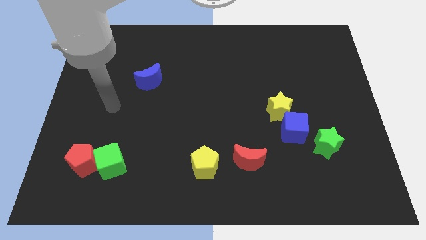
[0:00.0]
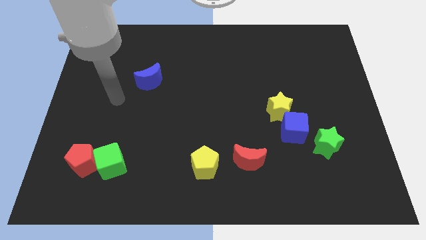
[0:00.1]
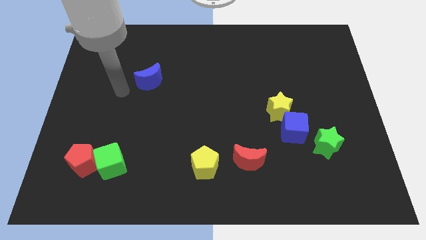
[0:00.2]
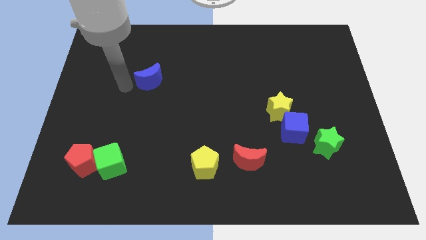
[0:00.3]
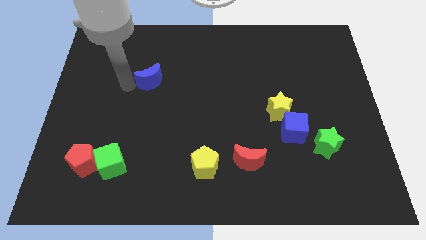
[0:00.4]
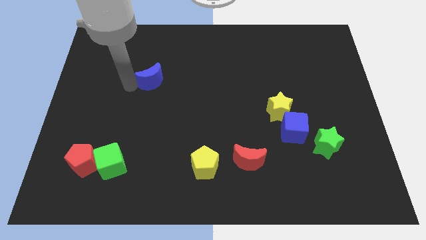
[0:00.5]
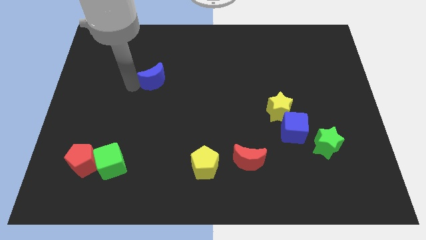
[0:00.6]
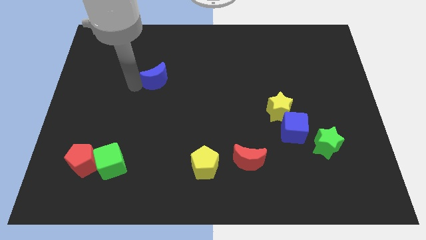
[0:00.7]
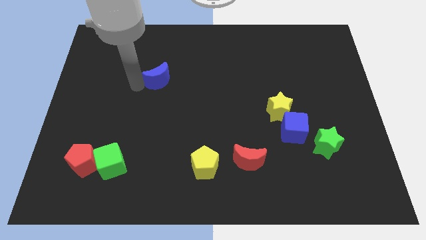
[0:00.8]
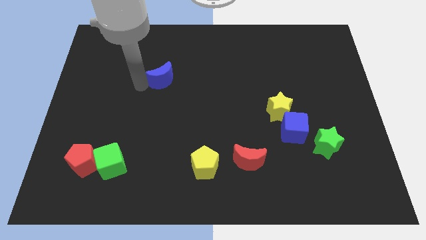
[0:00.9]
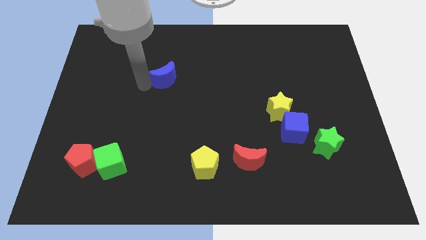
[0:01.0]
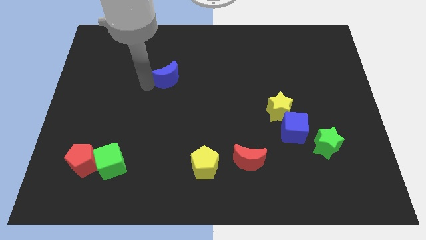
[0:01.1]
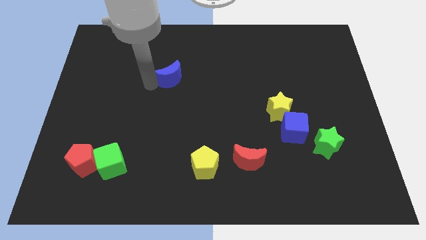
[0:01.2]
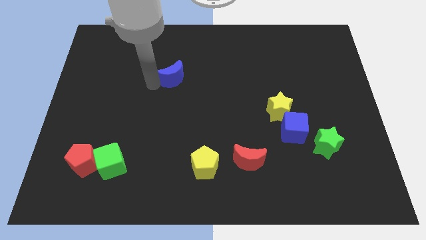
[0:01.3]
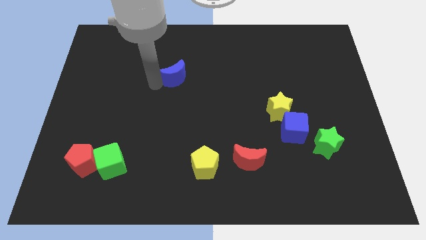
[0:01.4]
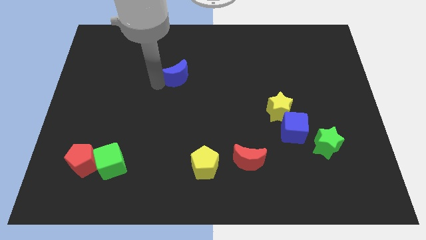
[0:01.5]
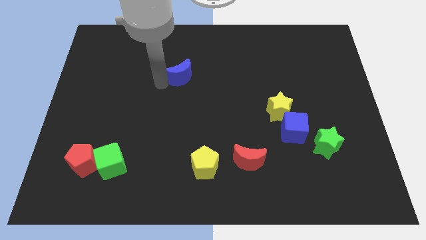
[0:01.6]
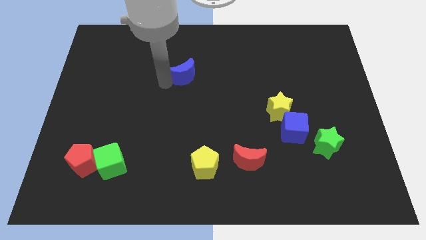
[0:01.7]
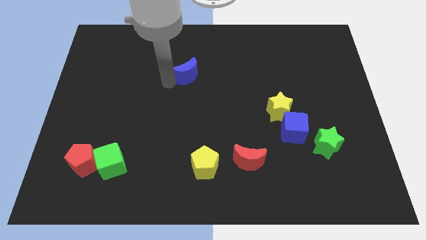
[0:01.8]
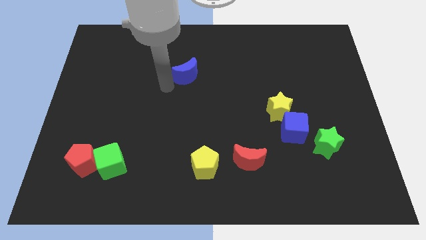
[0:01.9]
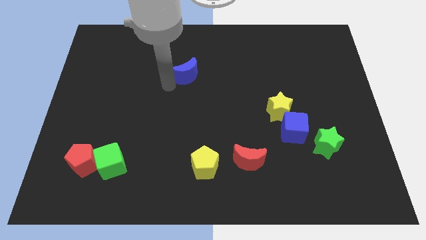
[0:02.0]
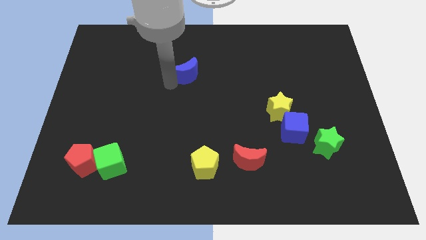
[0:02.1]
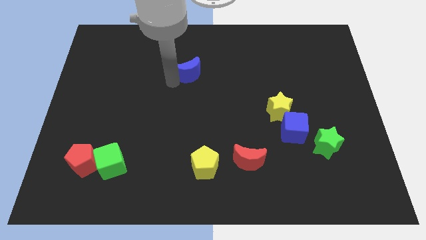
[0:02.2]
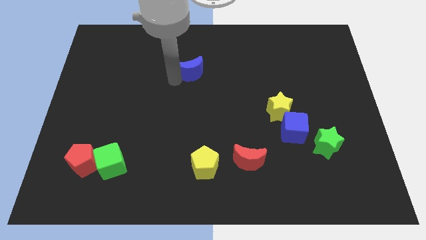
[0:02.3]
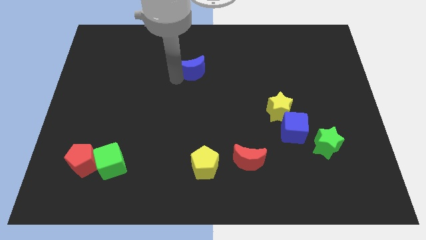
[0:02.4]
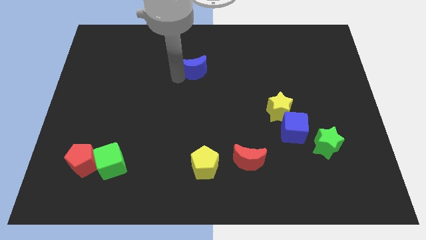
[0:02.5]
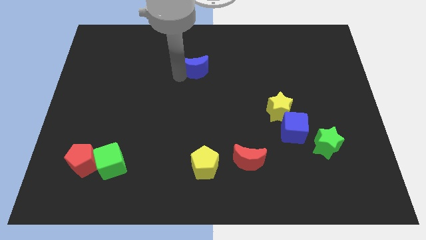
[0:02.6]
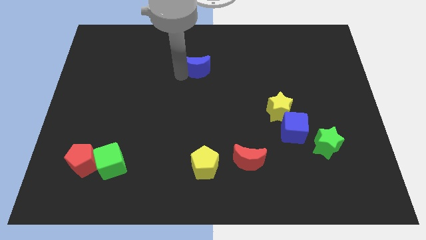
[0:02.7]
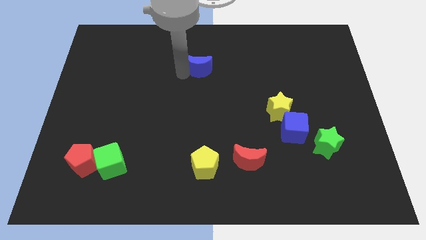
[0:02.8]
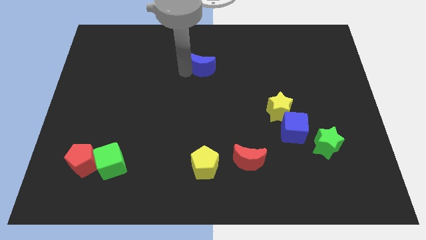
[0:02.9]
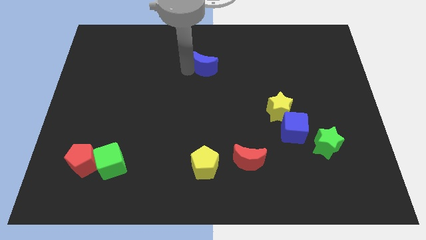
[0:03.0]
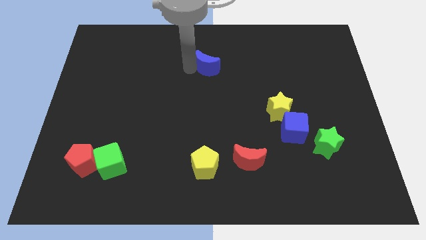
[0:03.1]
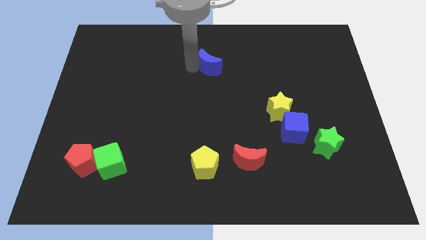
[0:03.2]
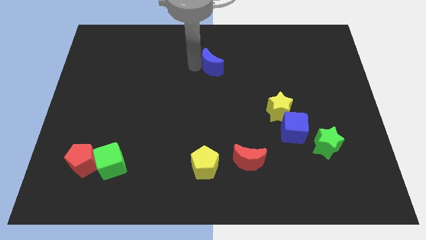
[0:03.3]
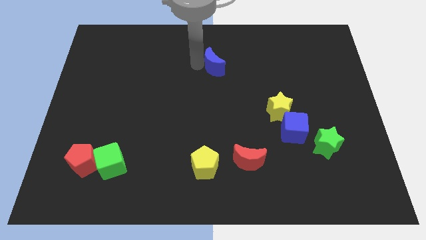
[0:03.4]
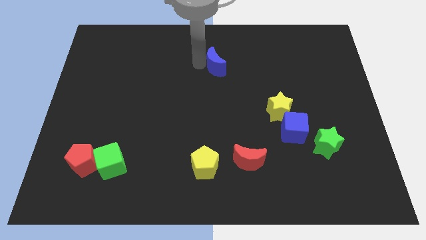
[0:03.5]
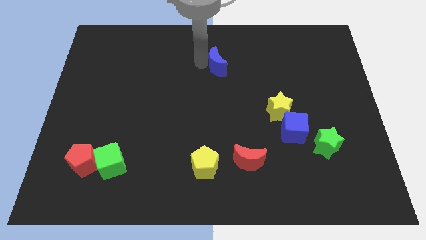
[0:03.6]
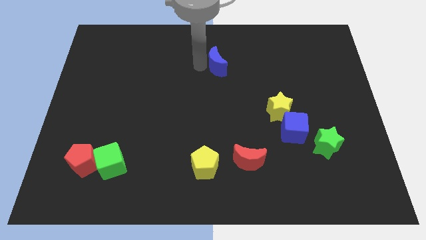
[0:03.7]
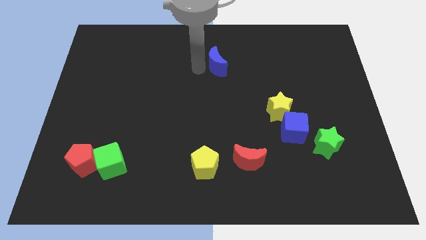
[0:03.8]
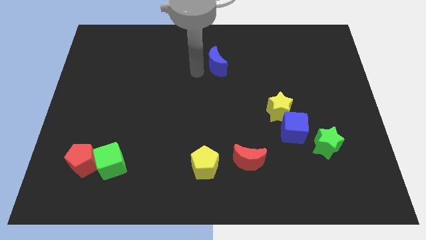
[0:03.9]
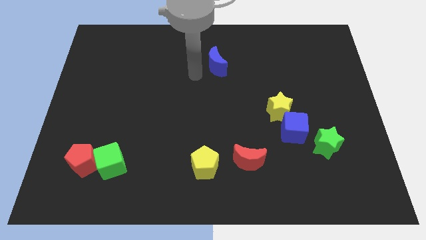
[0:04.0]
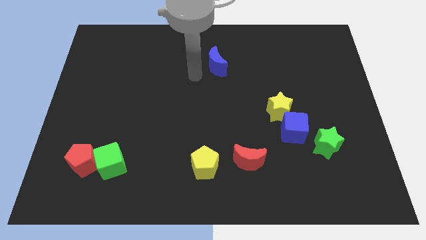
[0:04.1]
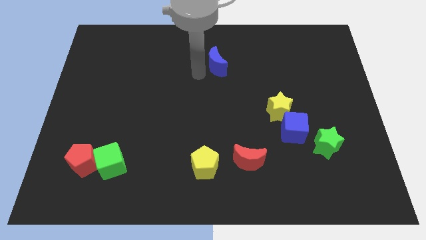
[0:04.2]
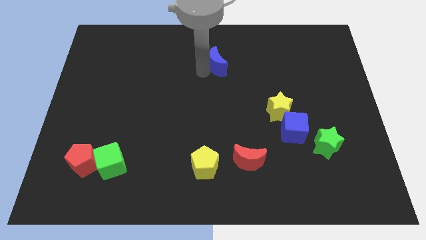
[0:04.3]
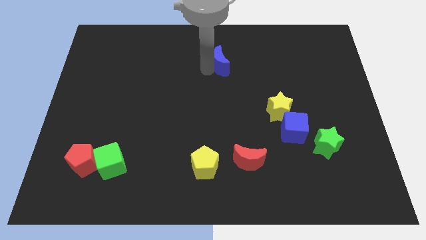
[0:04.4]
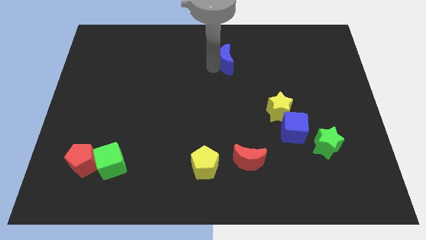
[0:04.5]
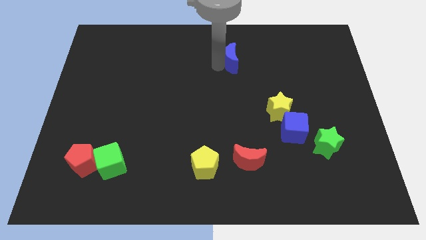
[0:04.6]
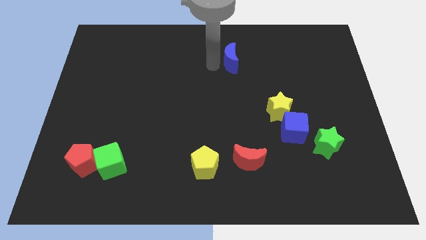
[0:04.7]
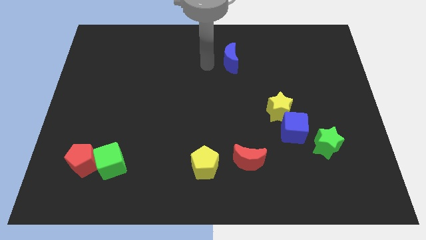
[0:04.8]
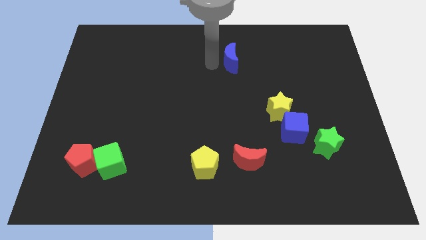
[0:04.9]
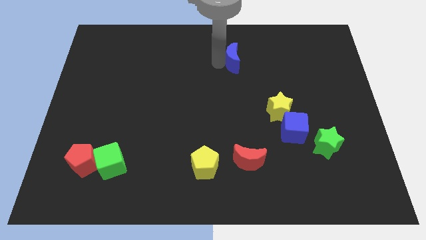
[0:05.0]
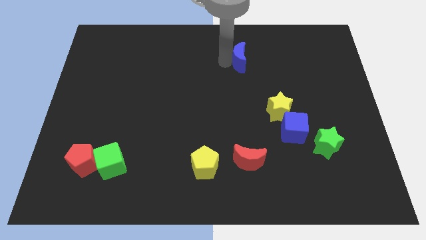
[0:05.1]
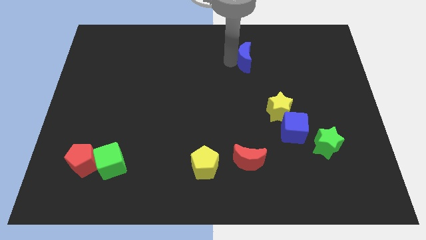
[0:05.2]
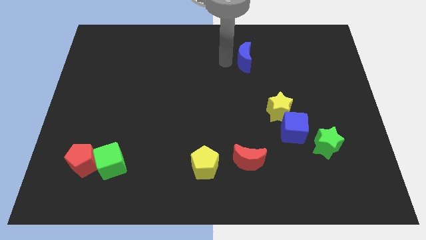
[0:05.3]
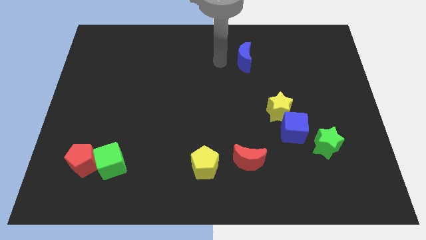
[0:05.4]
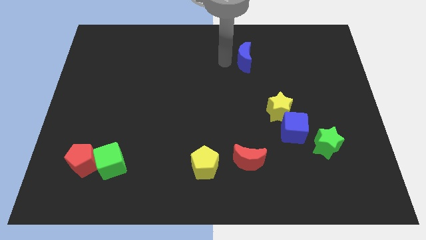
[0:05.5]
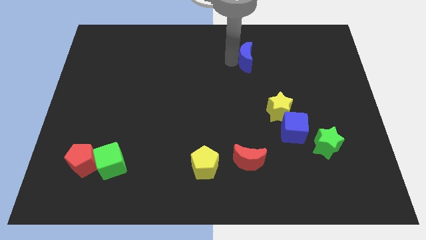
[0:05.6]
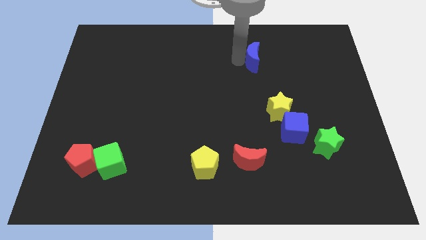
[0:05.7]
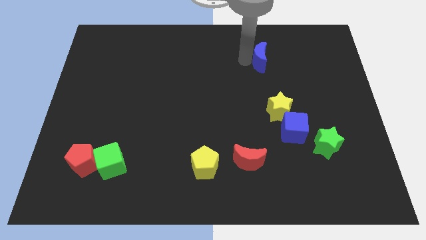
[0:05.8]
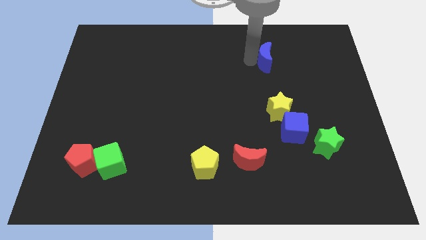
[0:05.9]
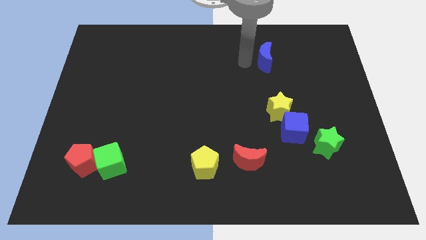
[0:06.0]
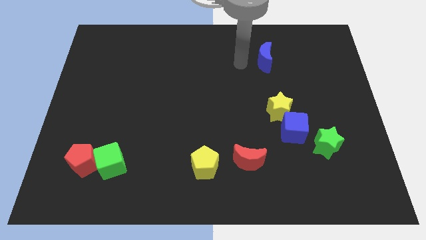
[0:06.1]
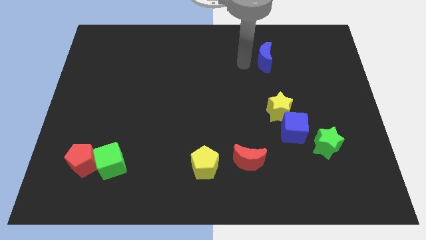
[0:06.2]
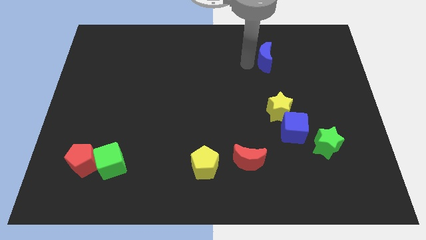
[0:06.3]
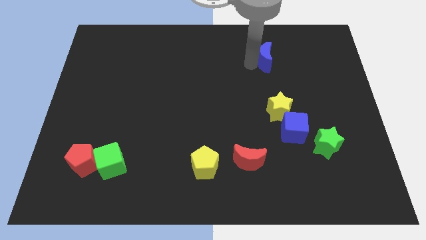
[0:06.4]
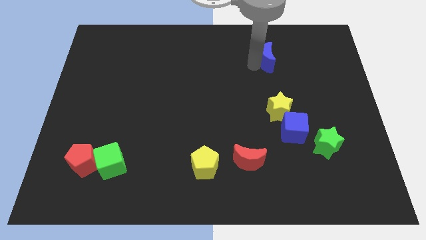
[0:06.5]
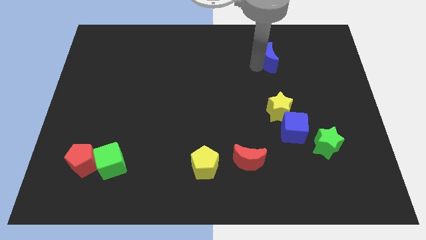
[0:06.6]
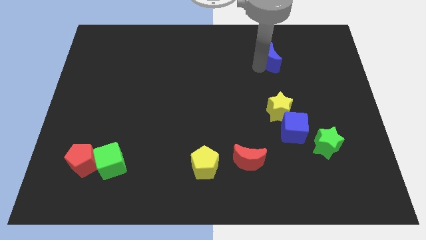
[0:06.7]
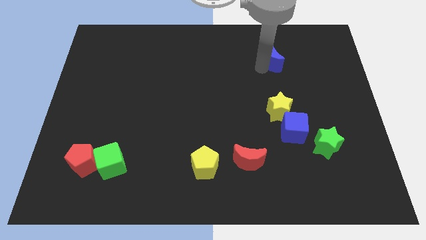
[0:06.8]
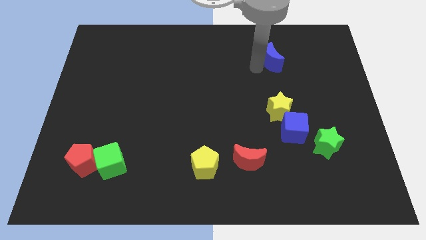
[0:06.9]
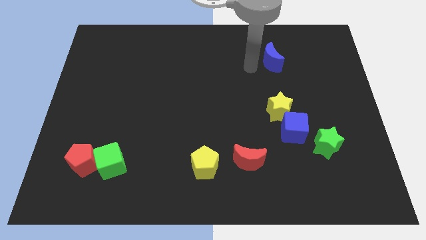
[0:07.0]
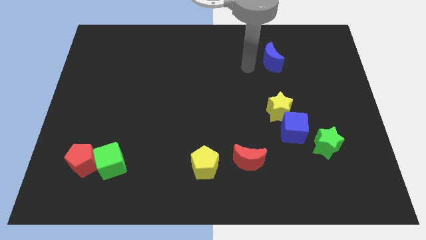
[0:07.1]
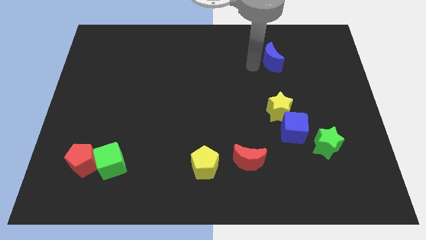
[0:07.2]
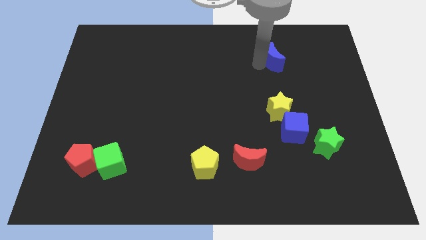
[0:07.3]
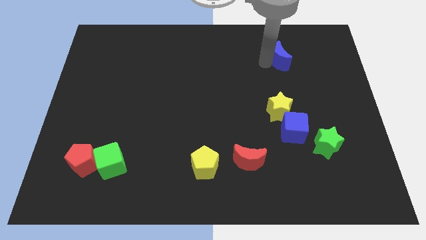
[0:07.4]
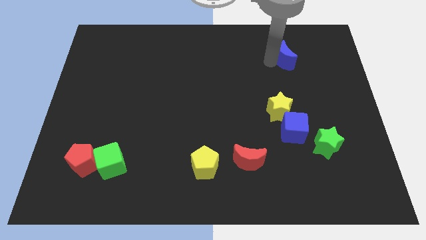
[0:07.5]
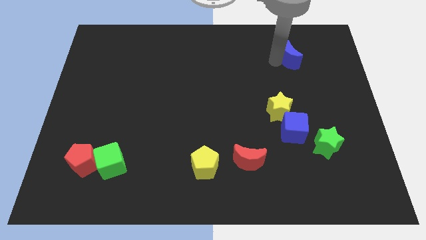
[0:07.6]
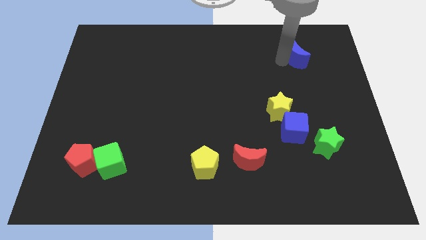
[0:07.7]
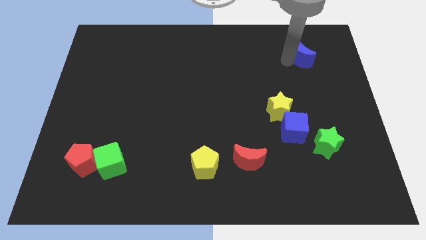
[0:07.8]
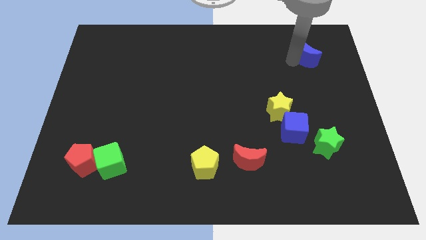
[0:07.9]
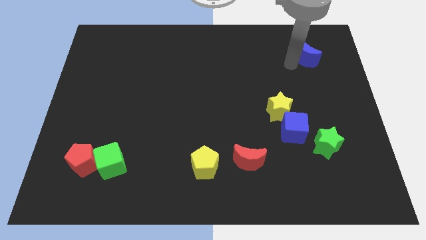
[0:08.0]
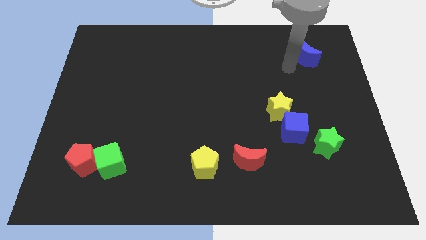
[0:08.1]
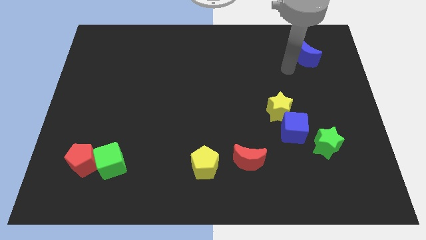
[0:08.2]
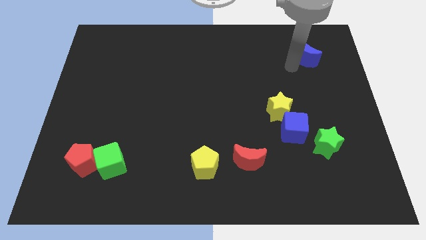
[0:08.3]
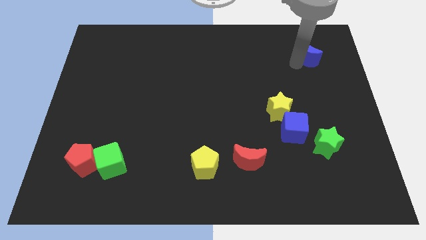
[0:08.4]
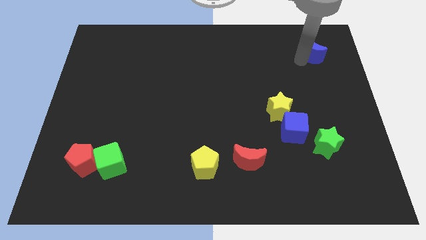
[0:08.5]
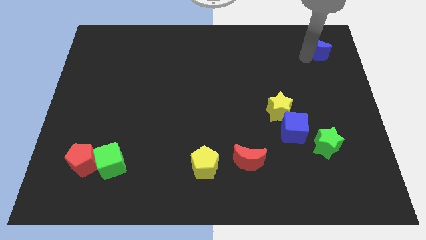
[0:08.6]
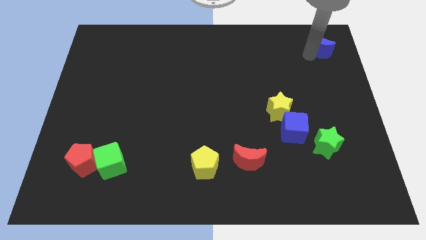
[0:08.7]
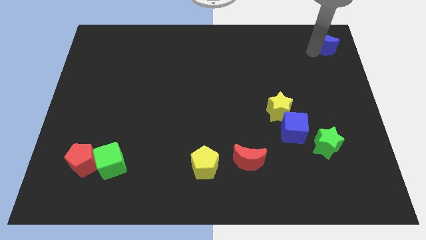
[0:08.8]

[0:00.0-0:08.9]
push the blue moon to the top right
